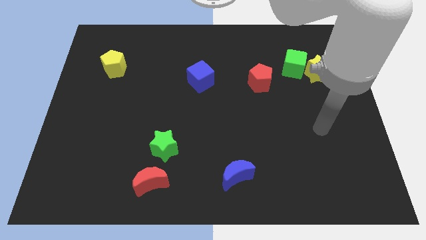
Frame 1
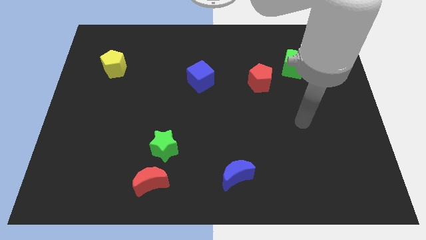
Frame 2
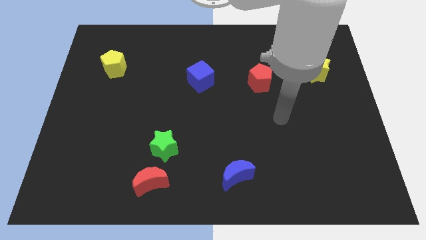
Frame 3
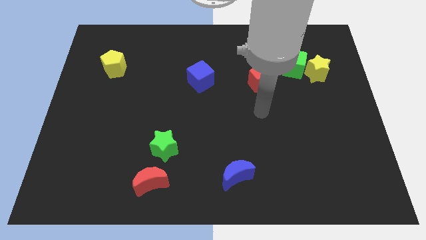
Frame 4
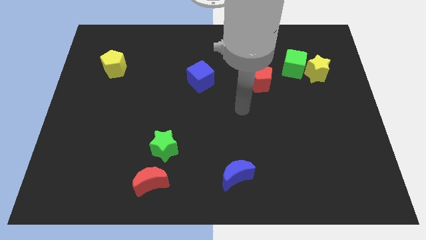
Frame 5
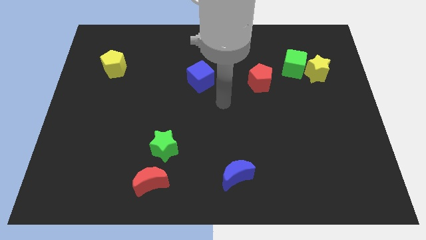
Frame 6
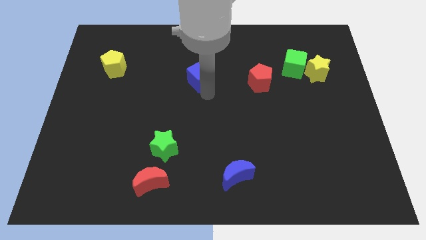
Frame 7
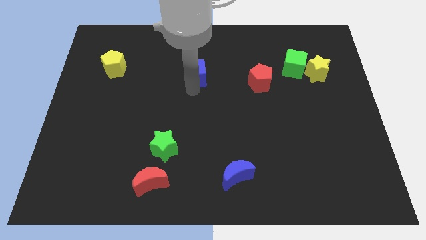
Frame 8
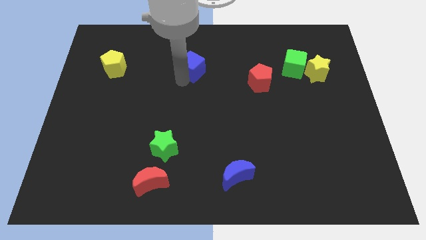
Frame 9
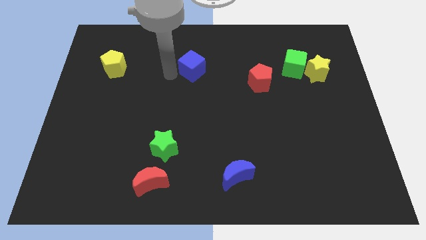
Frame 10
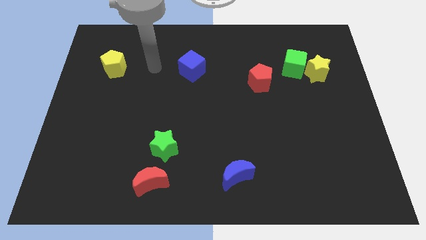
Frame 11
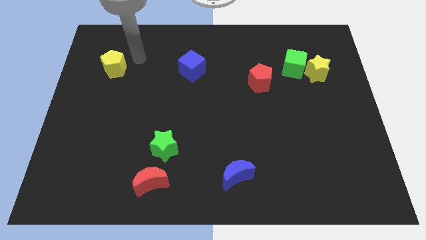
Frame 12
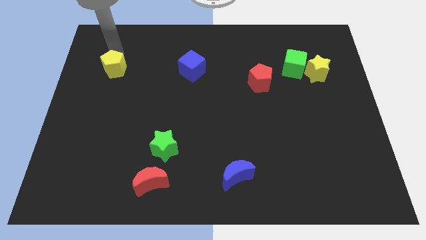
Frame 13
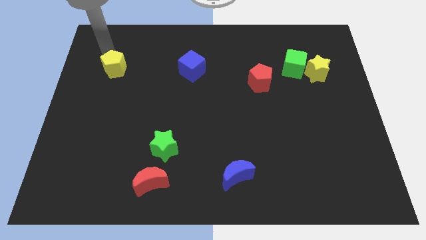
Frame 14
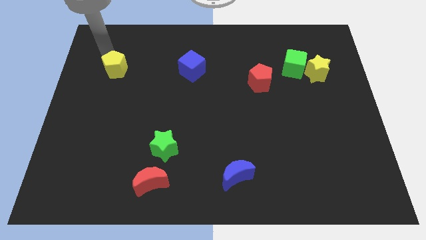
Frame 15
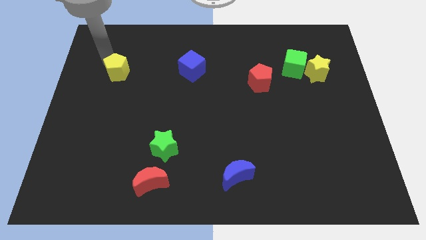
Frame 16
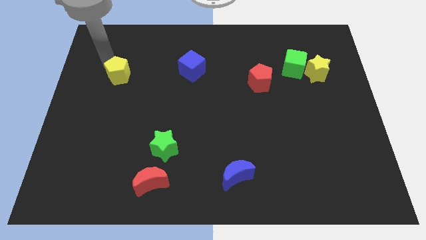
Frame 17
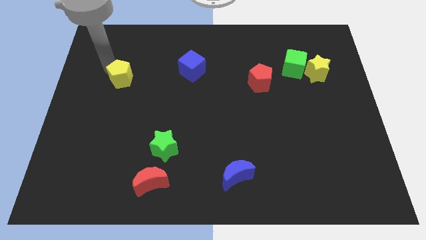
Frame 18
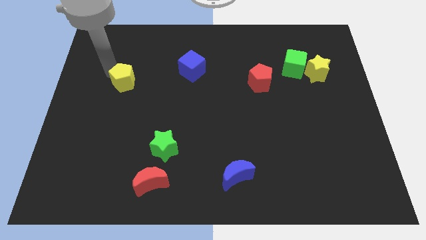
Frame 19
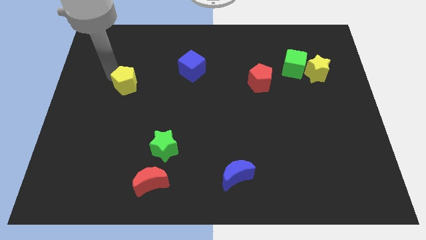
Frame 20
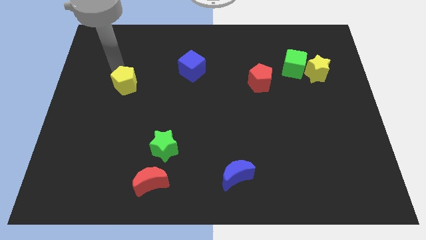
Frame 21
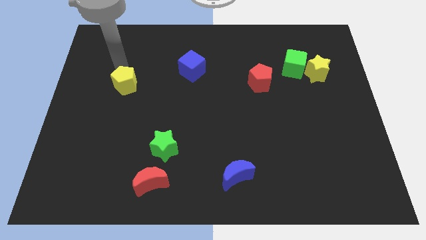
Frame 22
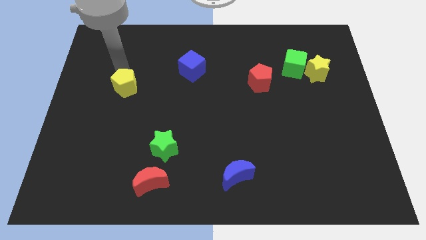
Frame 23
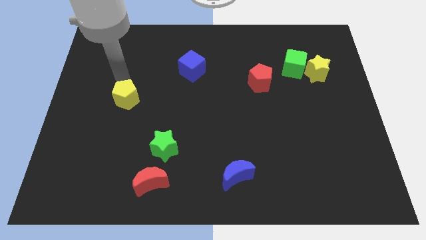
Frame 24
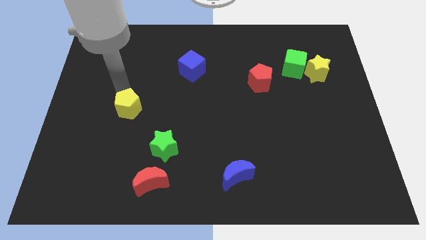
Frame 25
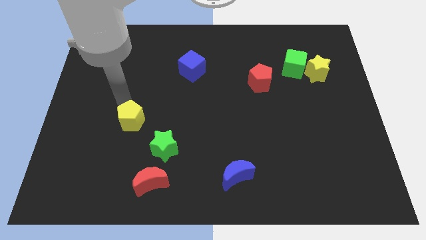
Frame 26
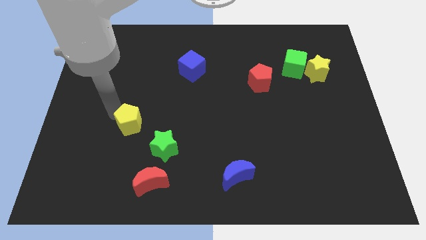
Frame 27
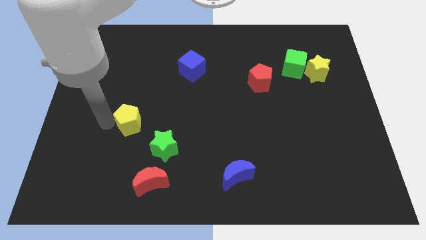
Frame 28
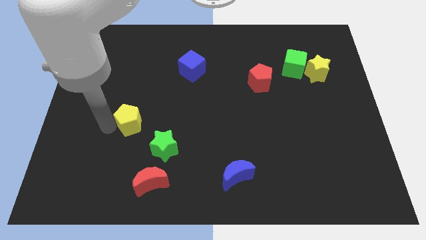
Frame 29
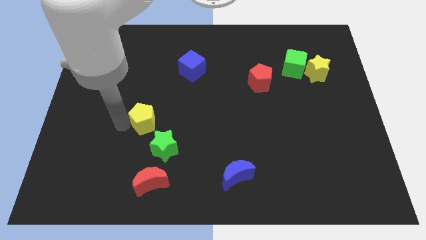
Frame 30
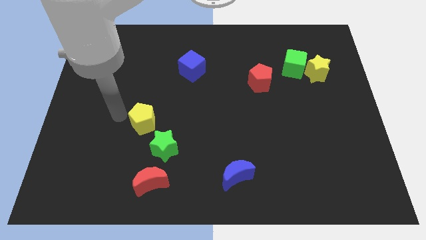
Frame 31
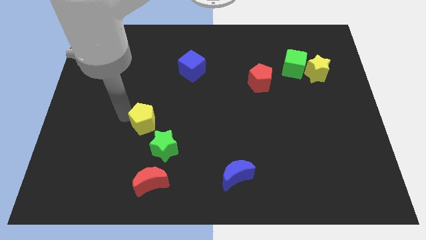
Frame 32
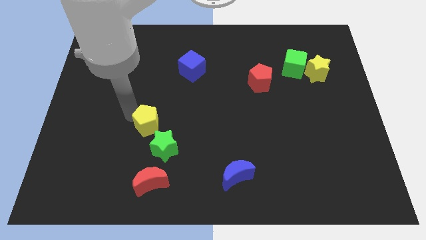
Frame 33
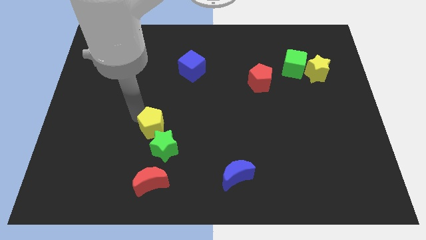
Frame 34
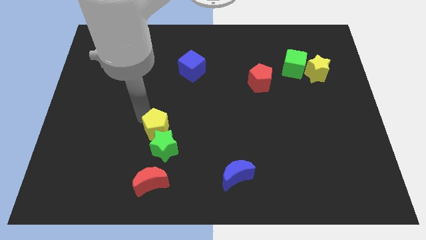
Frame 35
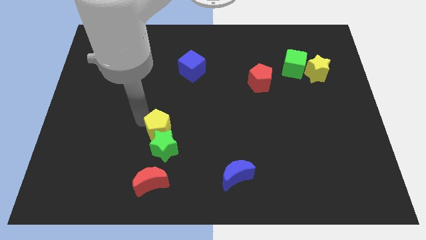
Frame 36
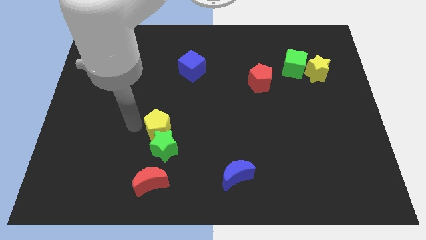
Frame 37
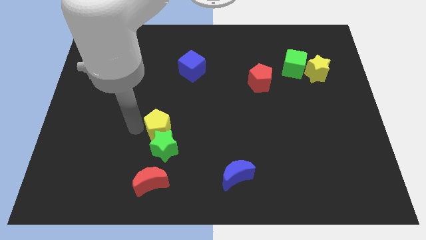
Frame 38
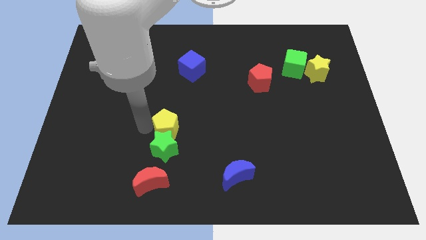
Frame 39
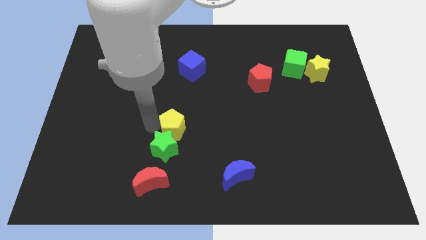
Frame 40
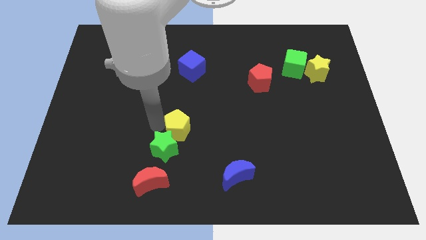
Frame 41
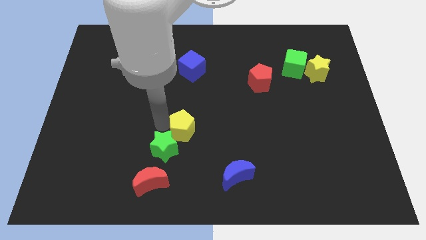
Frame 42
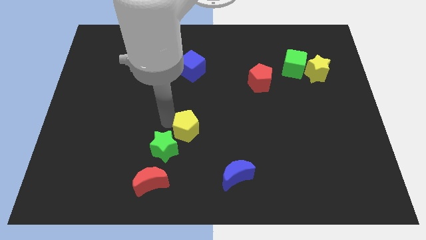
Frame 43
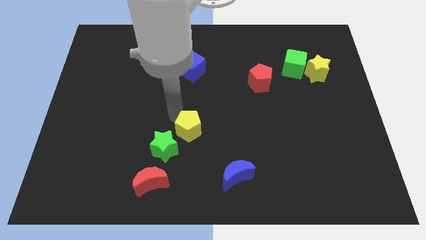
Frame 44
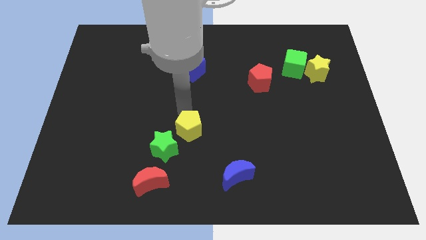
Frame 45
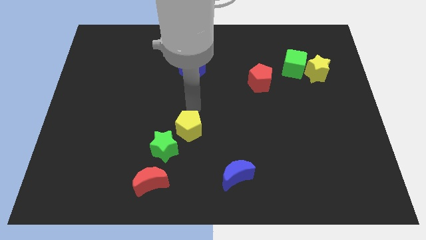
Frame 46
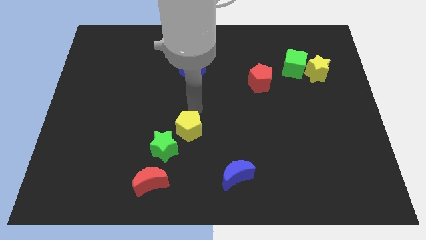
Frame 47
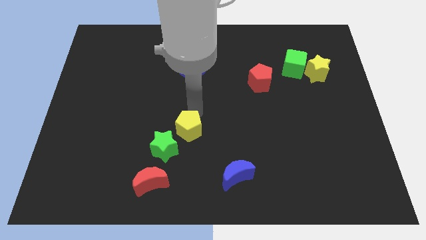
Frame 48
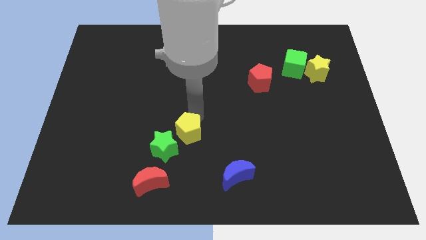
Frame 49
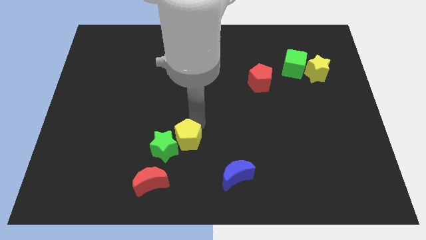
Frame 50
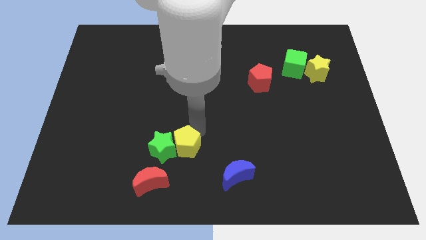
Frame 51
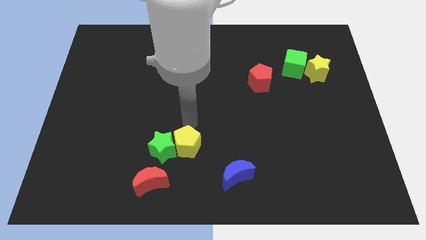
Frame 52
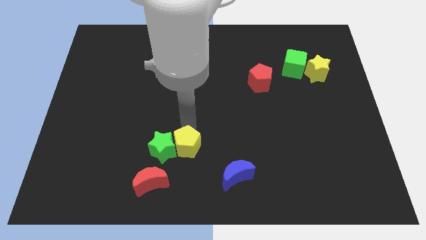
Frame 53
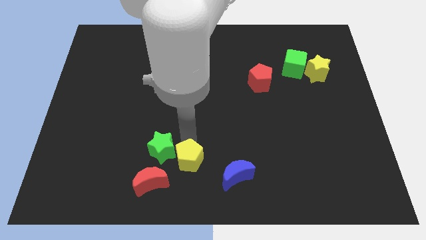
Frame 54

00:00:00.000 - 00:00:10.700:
move the yellow pentagon left of the blue moon

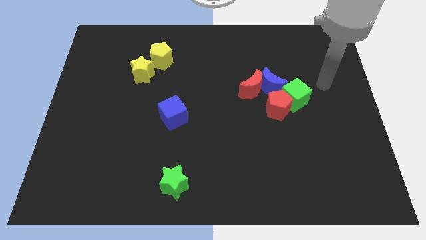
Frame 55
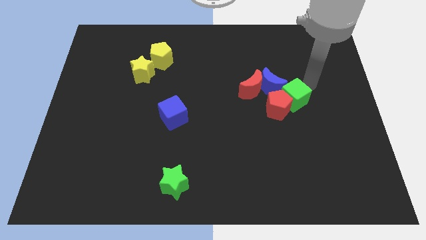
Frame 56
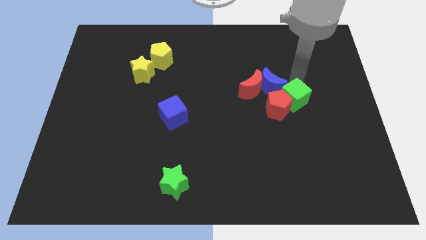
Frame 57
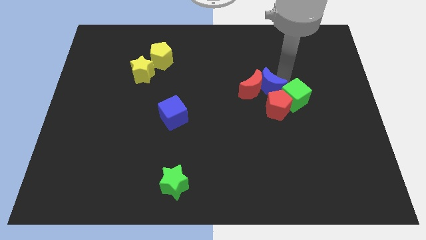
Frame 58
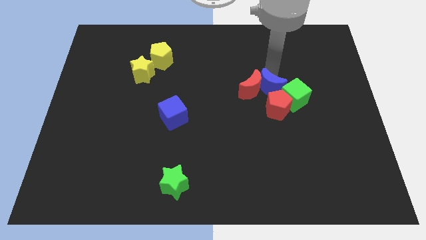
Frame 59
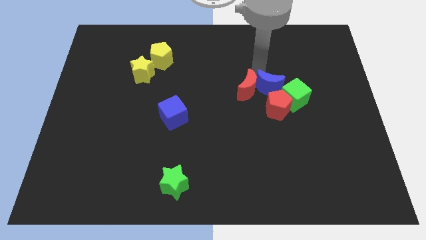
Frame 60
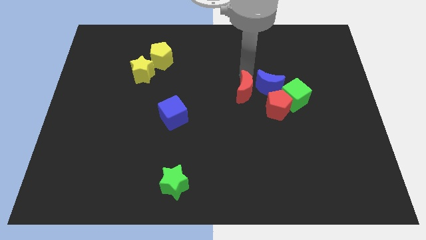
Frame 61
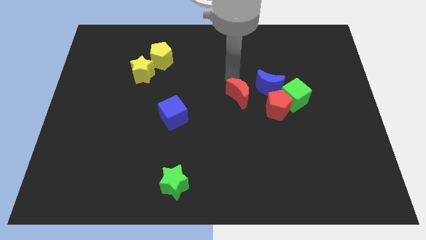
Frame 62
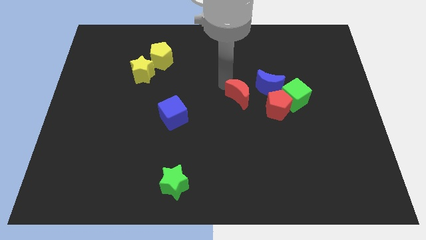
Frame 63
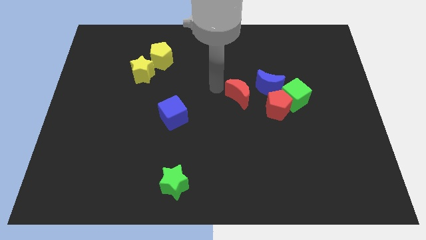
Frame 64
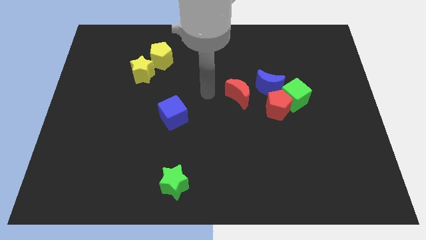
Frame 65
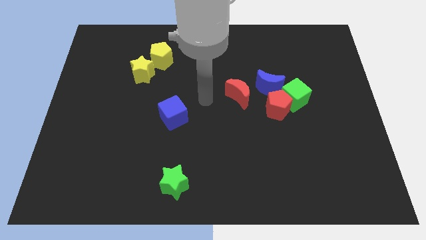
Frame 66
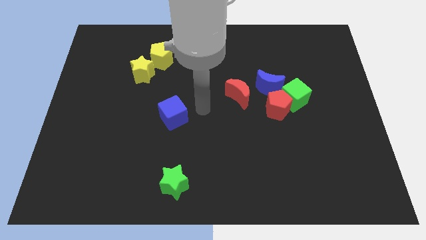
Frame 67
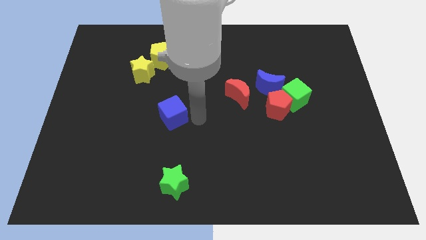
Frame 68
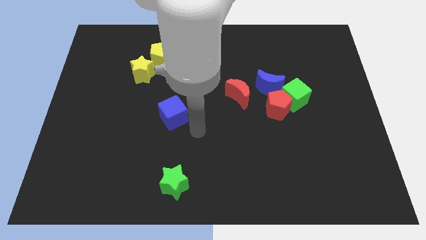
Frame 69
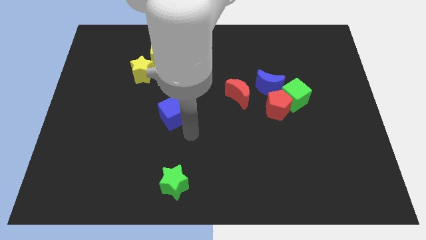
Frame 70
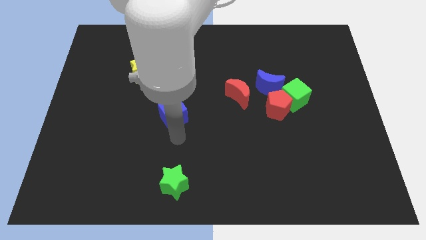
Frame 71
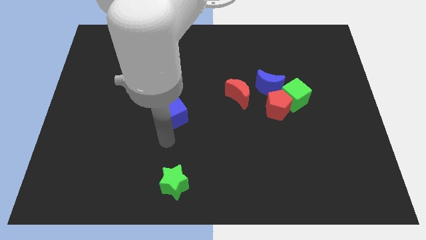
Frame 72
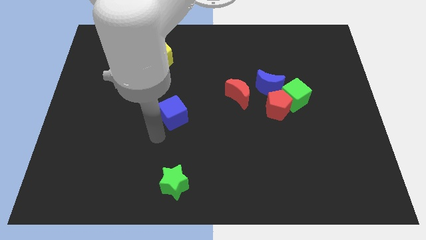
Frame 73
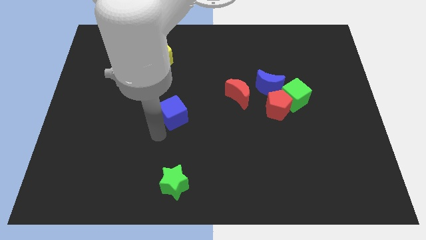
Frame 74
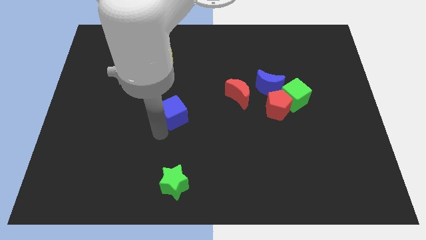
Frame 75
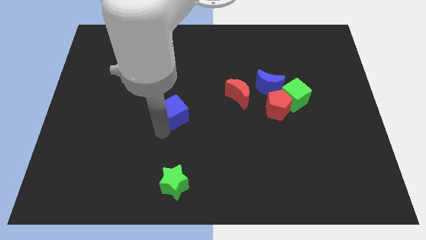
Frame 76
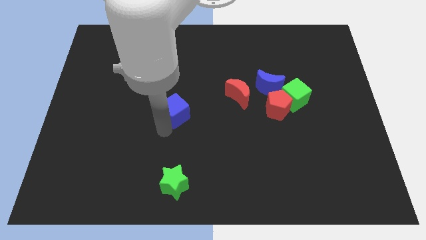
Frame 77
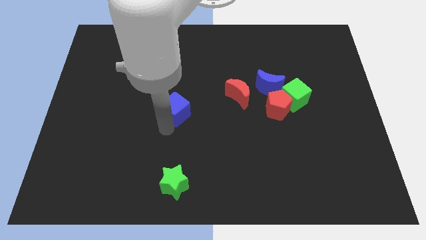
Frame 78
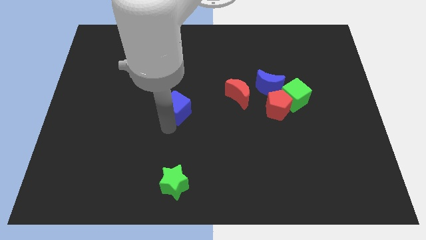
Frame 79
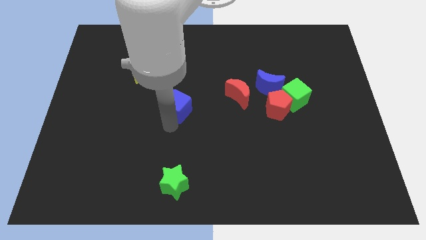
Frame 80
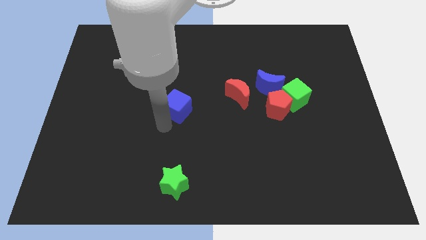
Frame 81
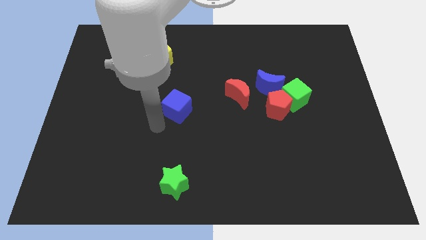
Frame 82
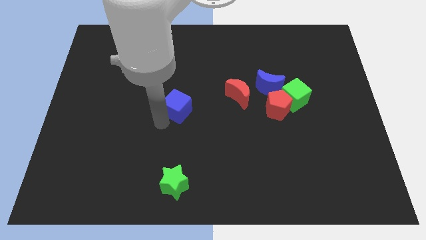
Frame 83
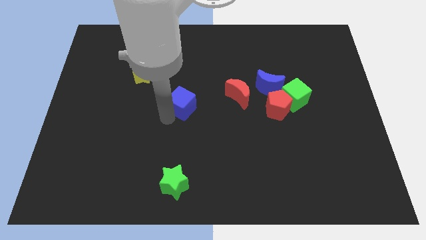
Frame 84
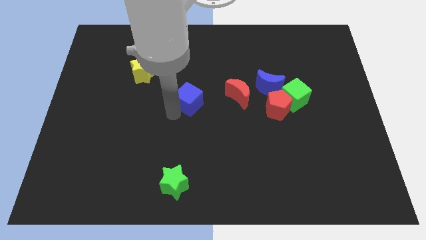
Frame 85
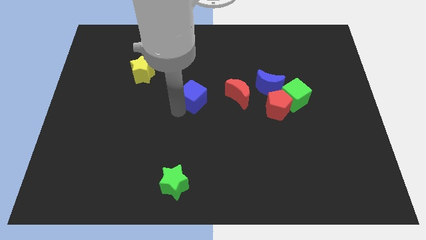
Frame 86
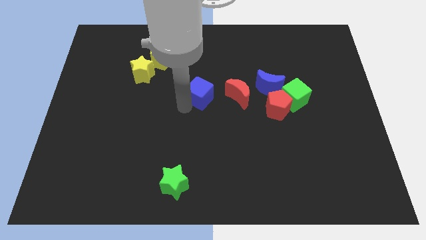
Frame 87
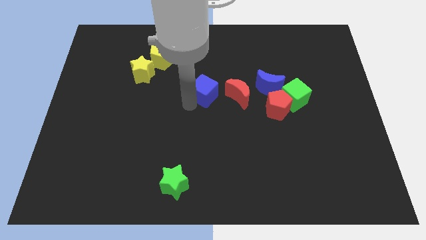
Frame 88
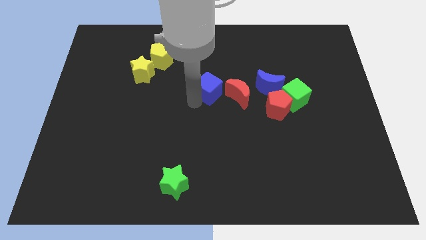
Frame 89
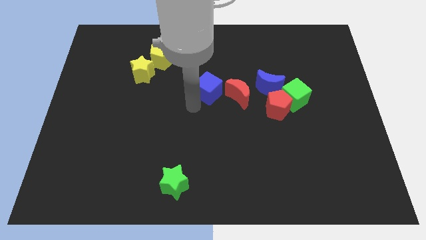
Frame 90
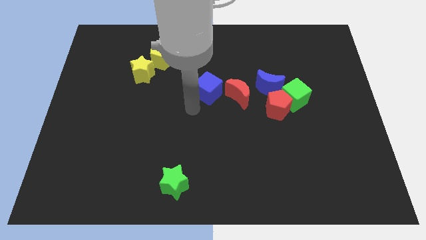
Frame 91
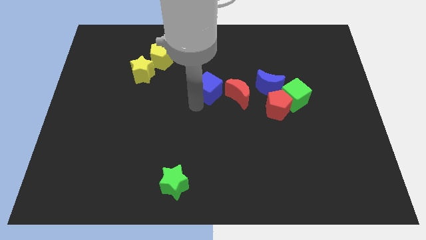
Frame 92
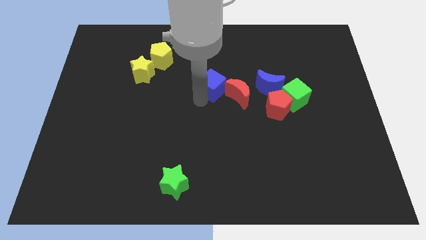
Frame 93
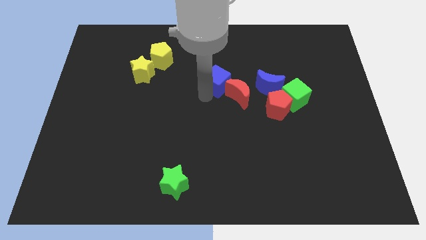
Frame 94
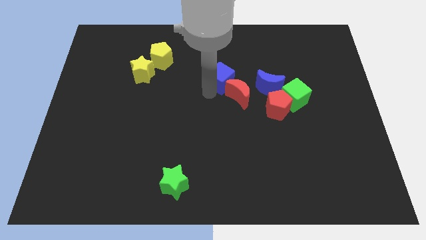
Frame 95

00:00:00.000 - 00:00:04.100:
put the blue cube to the top side of the red moon
